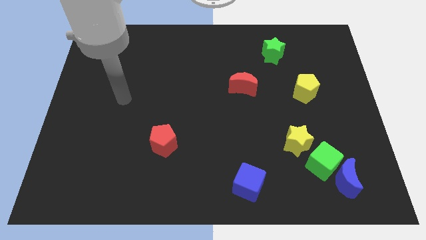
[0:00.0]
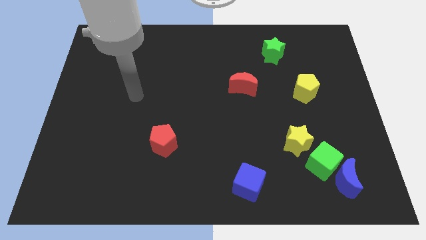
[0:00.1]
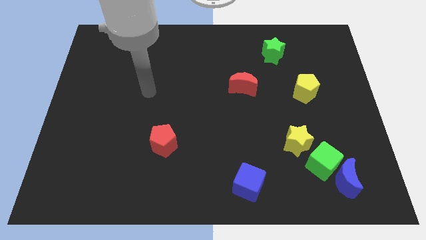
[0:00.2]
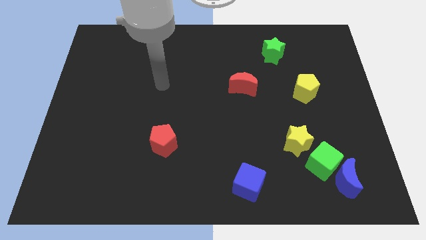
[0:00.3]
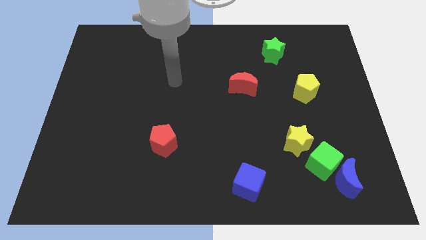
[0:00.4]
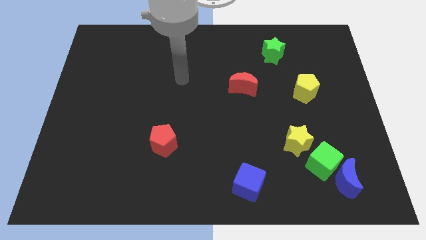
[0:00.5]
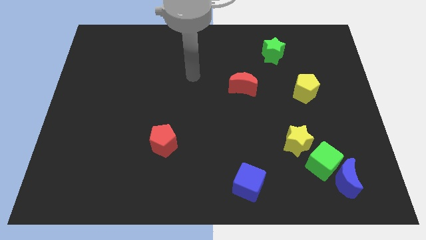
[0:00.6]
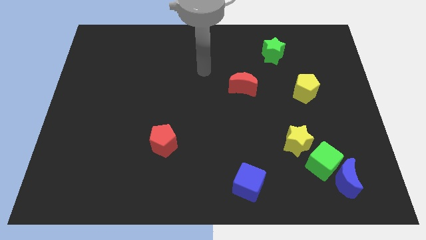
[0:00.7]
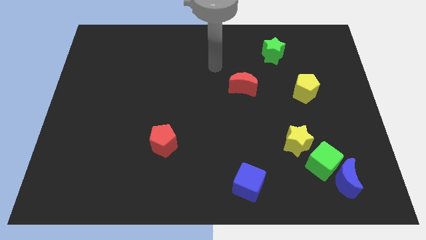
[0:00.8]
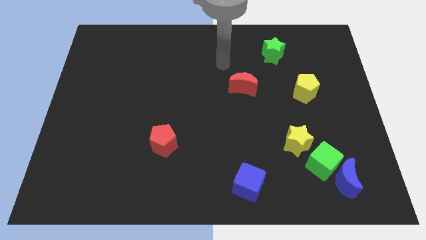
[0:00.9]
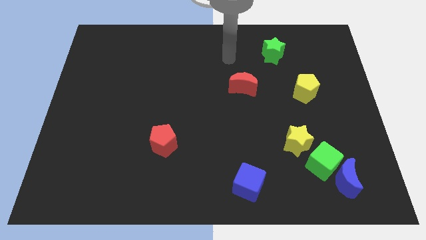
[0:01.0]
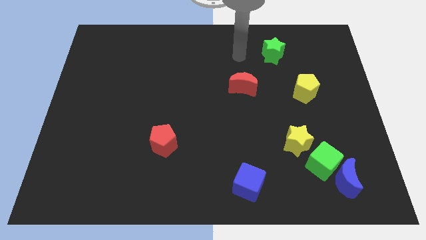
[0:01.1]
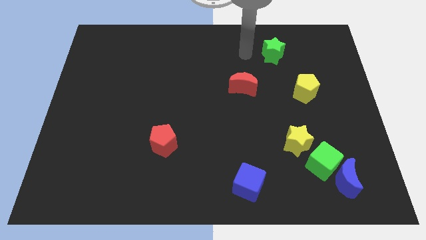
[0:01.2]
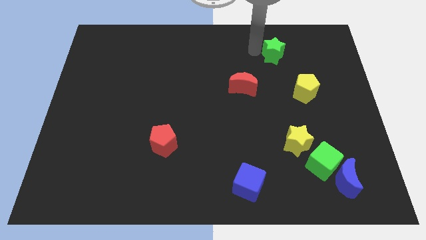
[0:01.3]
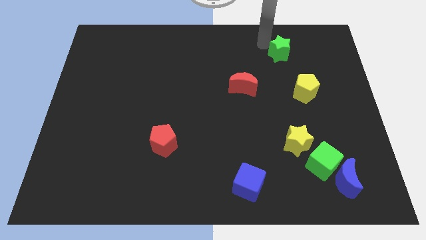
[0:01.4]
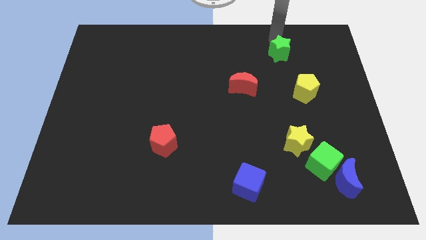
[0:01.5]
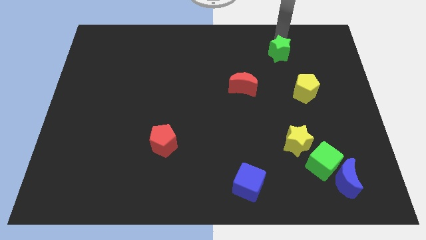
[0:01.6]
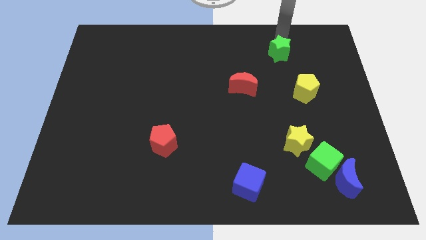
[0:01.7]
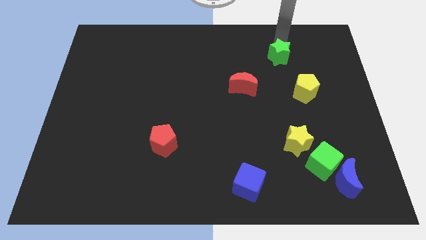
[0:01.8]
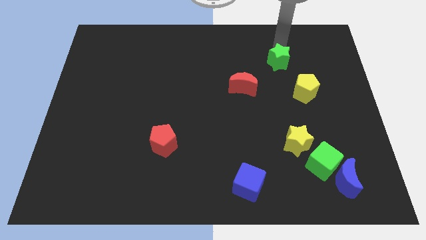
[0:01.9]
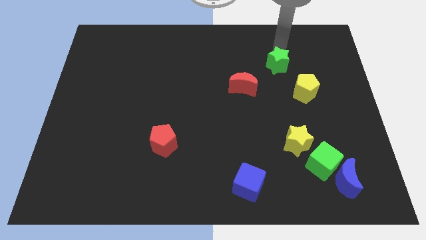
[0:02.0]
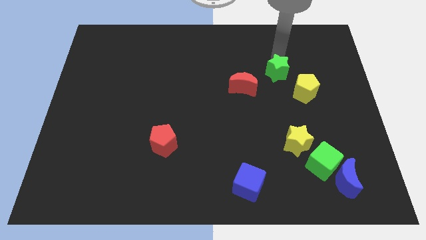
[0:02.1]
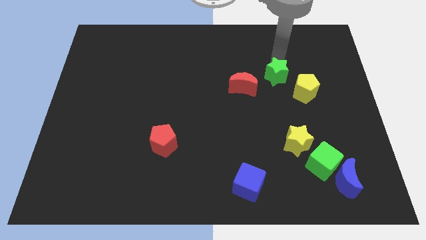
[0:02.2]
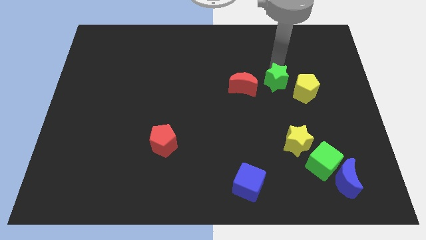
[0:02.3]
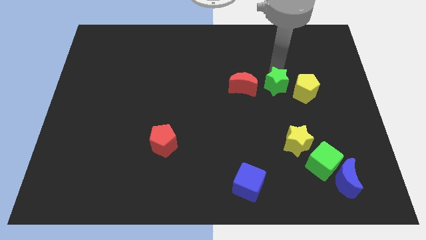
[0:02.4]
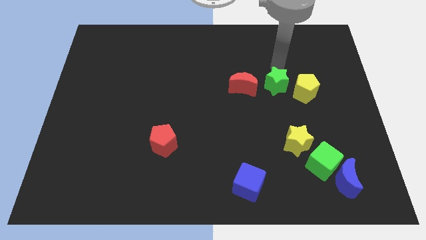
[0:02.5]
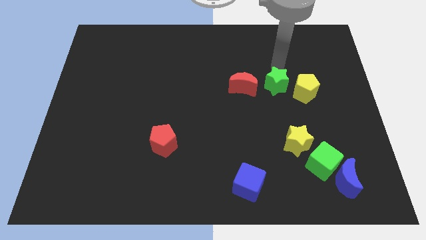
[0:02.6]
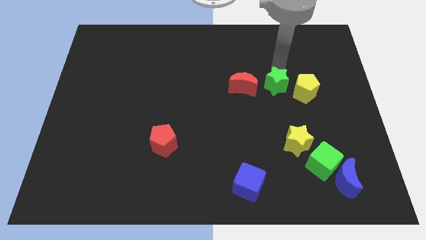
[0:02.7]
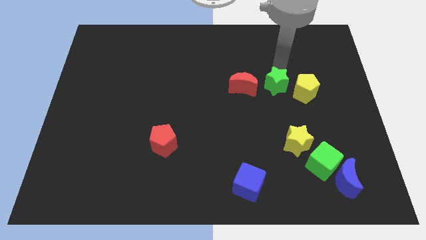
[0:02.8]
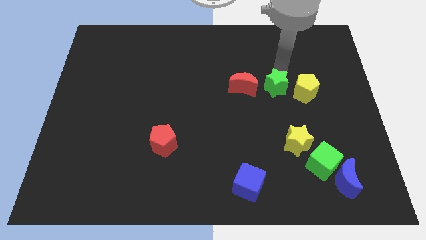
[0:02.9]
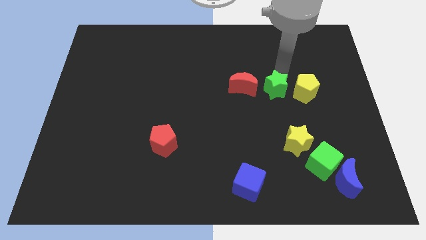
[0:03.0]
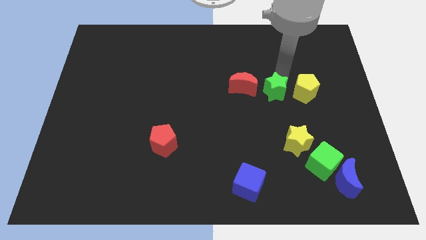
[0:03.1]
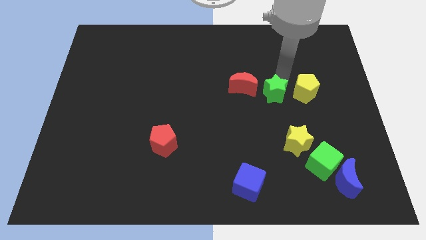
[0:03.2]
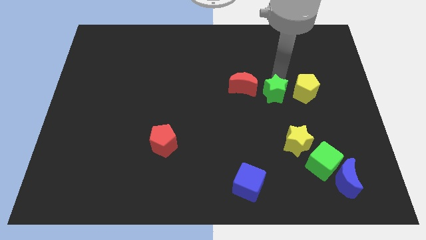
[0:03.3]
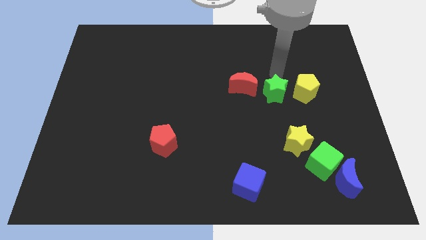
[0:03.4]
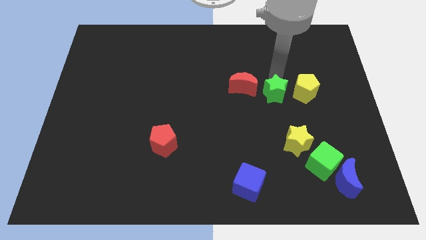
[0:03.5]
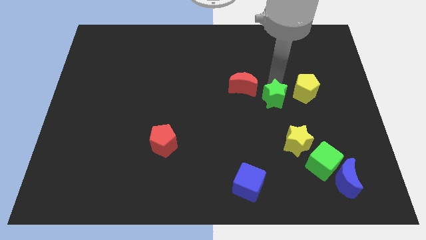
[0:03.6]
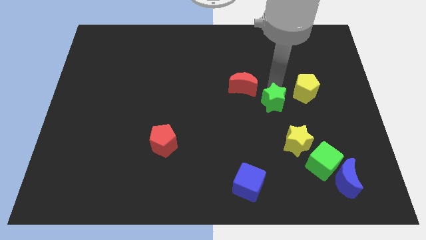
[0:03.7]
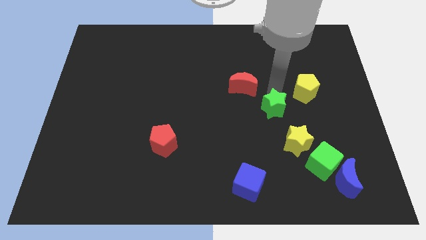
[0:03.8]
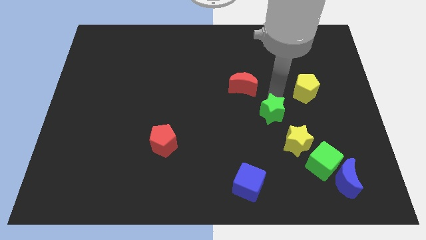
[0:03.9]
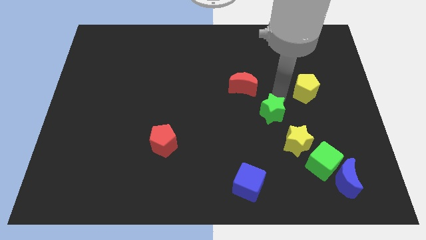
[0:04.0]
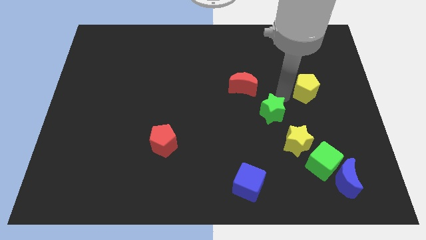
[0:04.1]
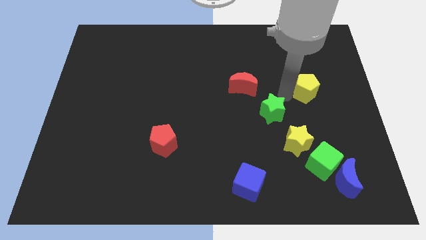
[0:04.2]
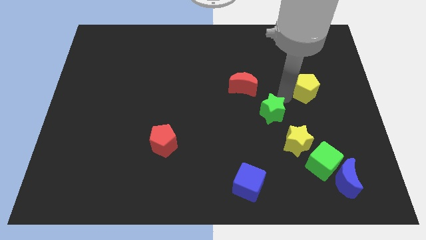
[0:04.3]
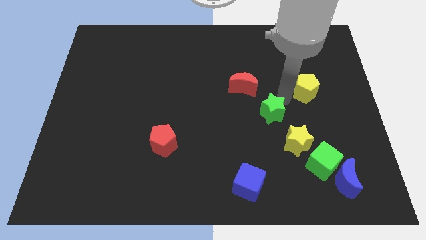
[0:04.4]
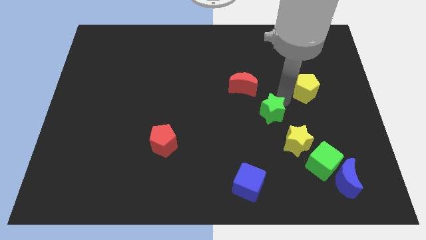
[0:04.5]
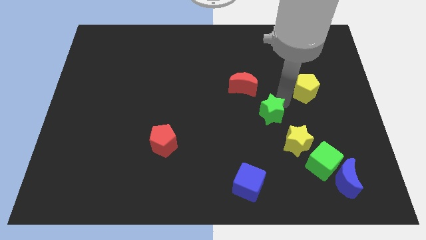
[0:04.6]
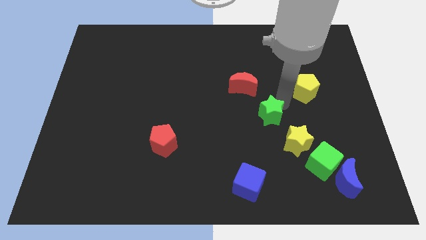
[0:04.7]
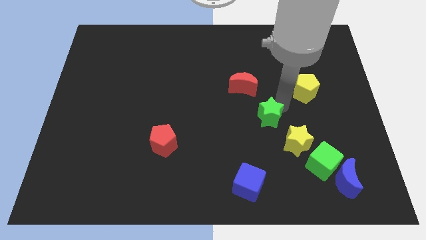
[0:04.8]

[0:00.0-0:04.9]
move the green star down

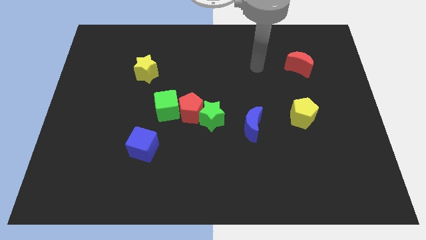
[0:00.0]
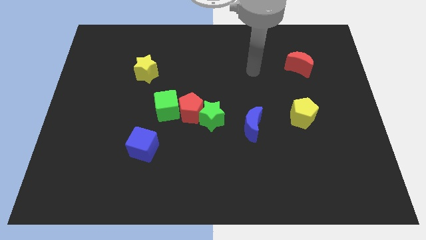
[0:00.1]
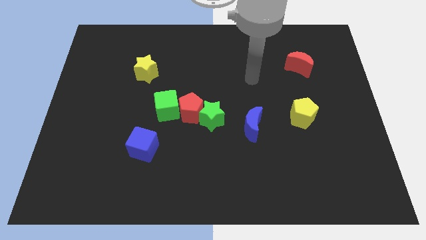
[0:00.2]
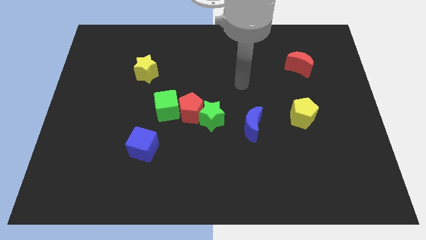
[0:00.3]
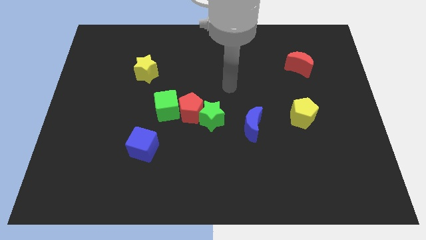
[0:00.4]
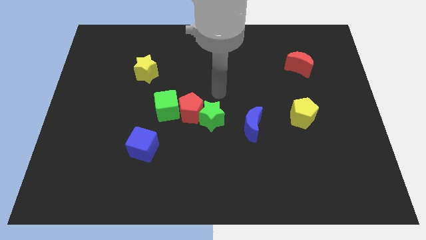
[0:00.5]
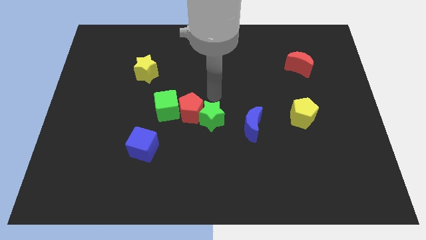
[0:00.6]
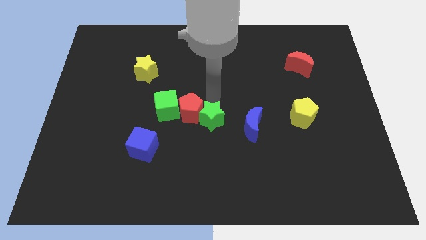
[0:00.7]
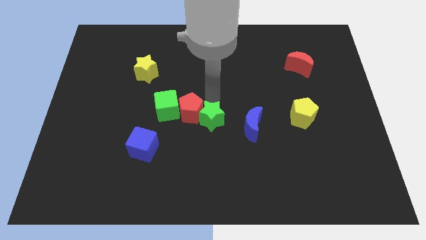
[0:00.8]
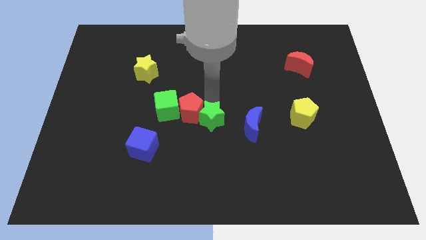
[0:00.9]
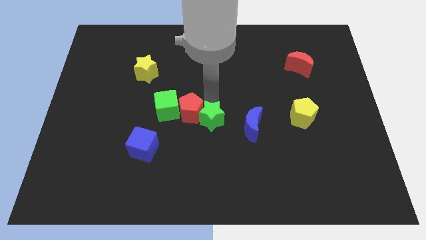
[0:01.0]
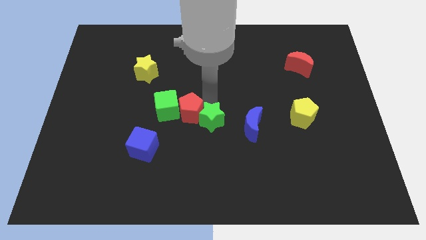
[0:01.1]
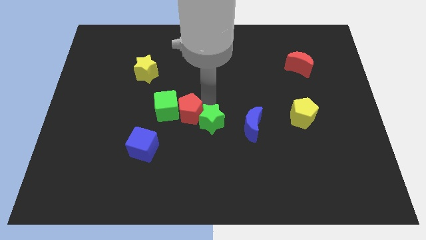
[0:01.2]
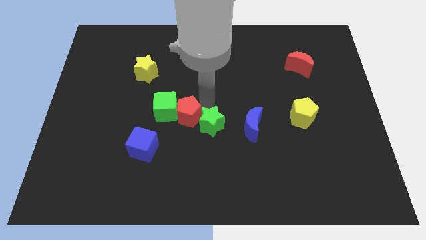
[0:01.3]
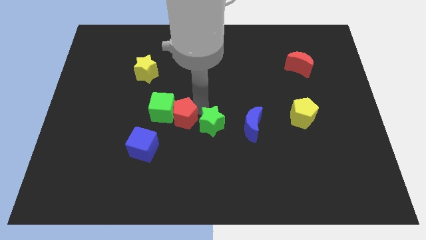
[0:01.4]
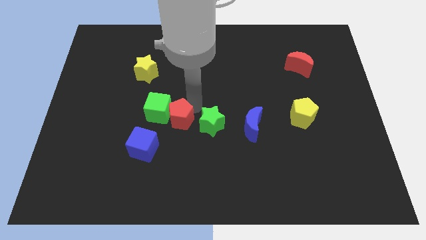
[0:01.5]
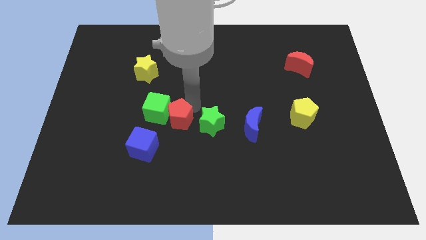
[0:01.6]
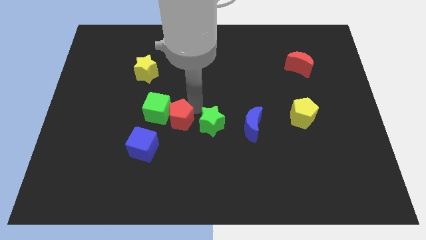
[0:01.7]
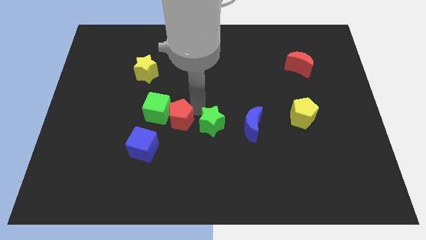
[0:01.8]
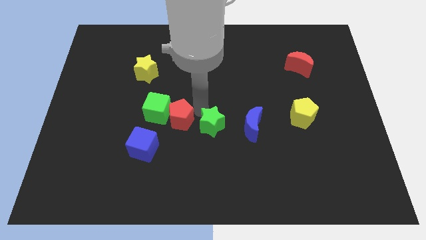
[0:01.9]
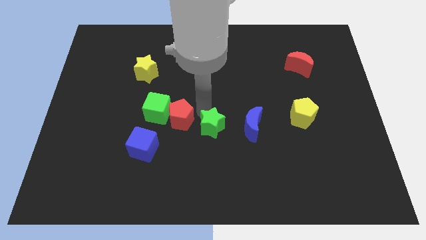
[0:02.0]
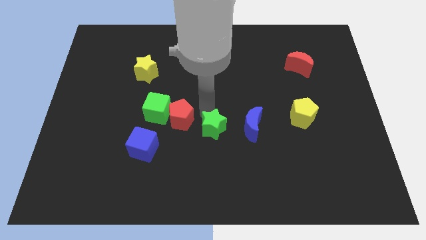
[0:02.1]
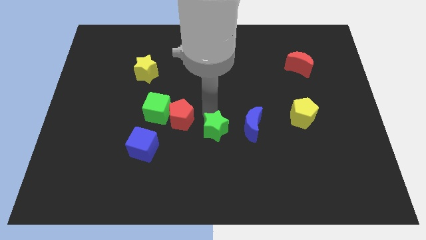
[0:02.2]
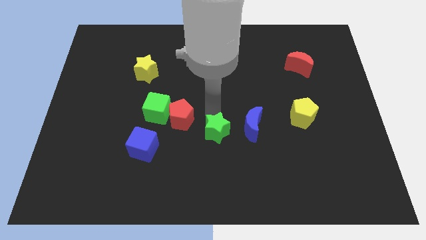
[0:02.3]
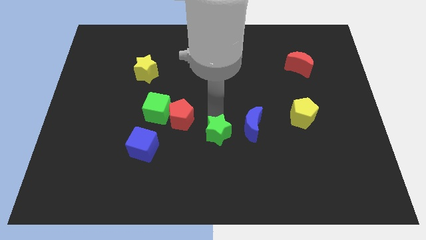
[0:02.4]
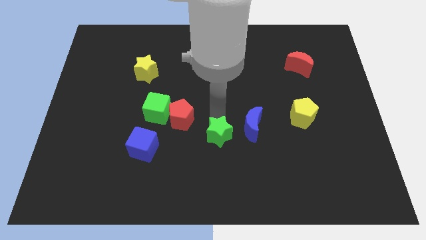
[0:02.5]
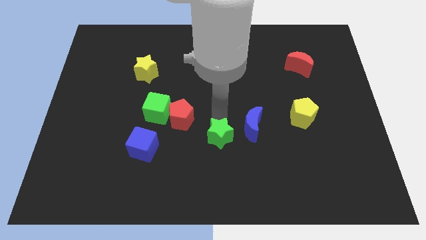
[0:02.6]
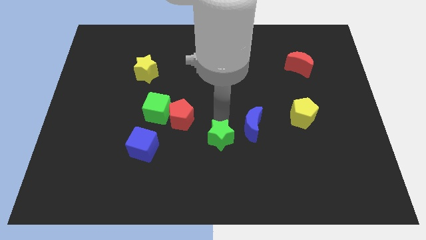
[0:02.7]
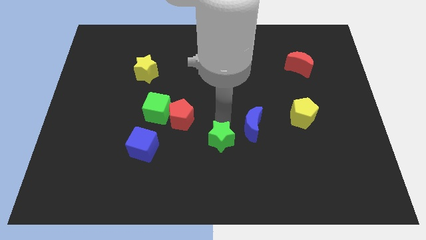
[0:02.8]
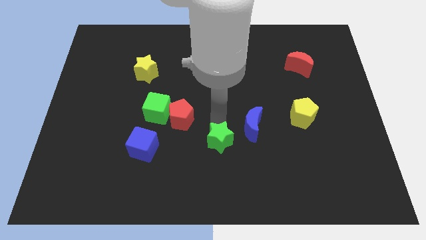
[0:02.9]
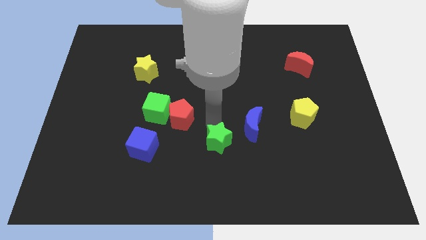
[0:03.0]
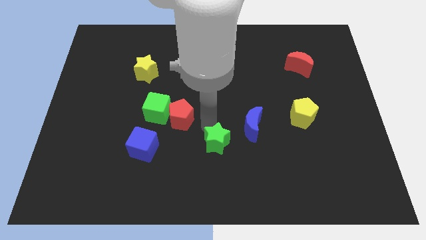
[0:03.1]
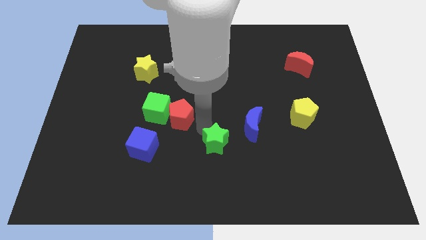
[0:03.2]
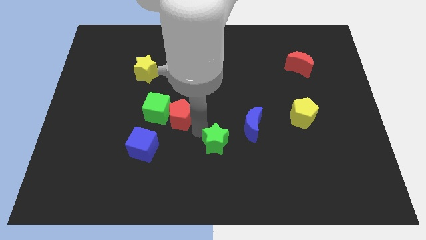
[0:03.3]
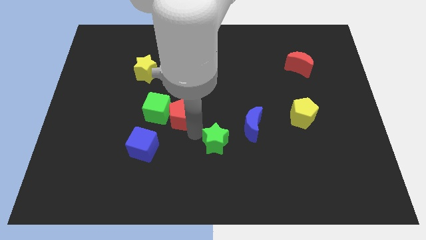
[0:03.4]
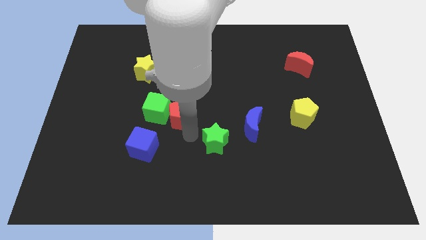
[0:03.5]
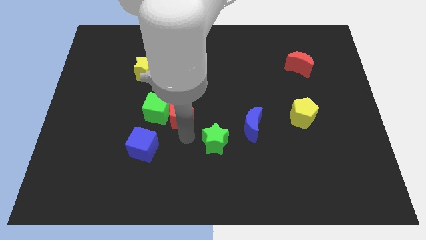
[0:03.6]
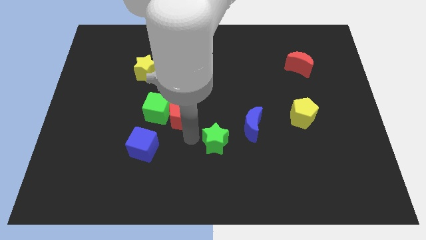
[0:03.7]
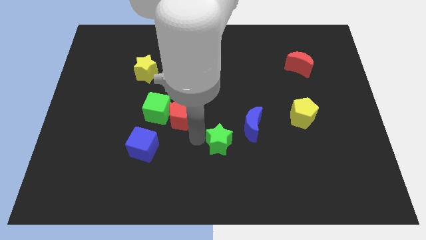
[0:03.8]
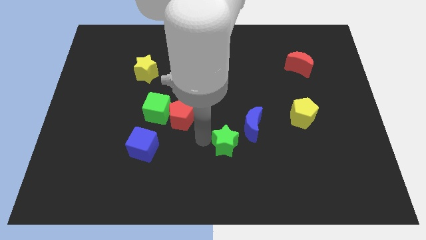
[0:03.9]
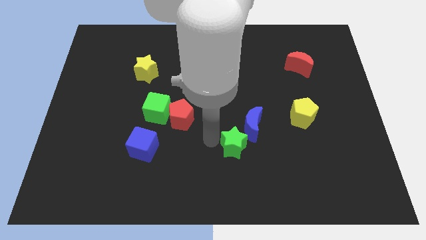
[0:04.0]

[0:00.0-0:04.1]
slightly slide the green star down and then to the right
